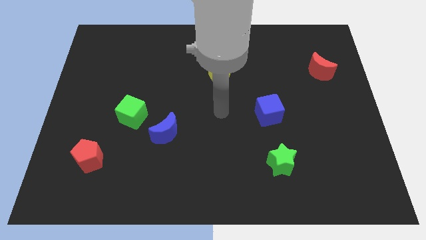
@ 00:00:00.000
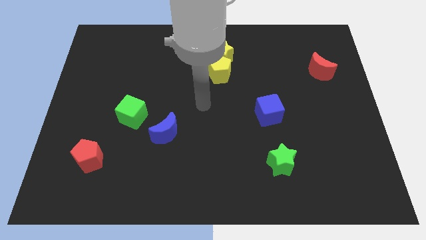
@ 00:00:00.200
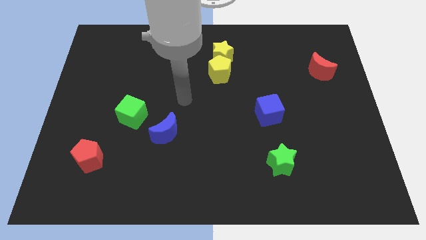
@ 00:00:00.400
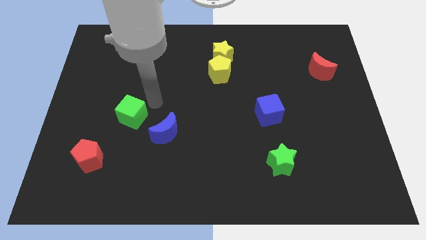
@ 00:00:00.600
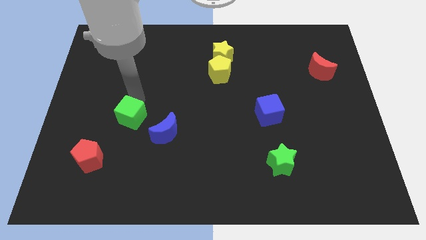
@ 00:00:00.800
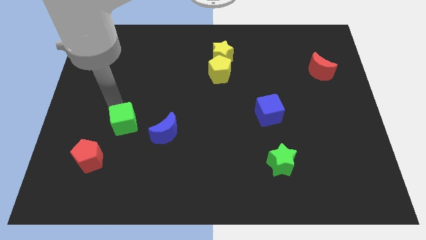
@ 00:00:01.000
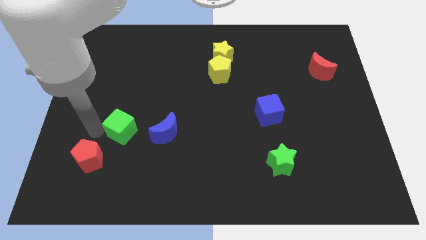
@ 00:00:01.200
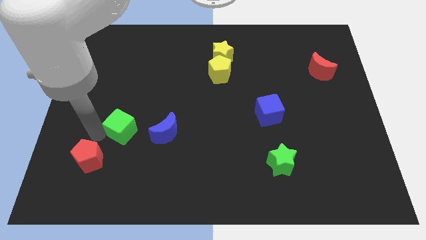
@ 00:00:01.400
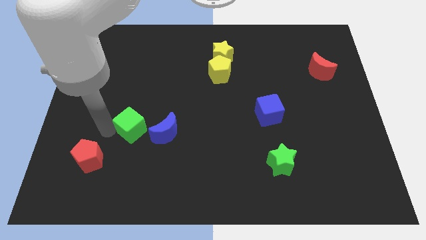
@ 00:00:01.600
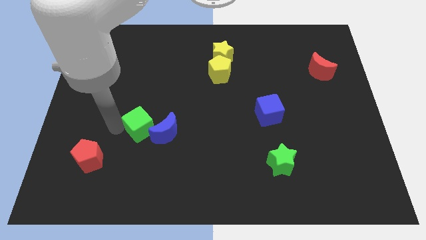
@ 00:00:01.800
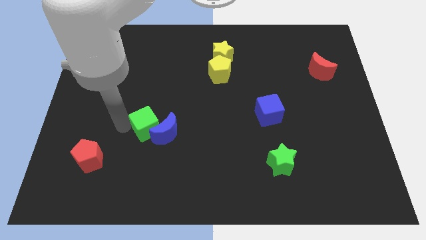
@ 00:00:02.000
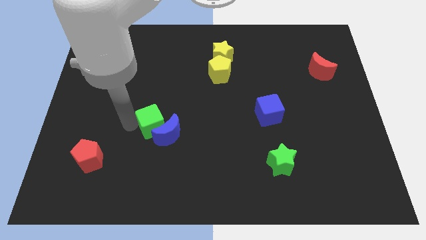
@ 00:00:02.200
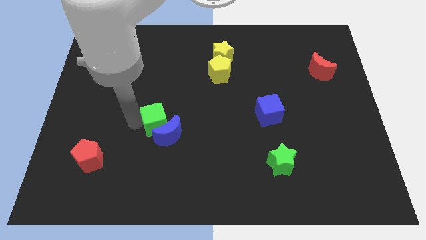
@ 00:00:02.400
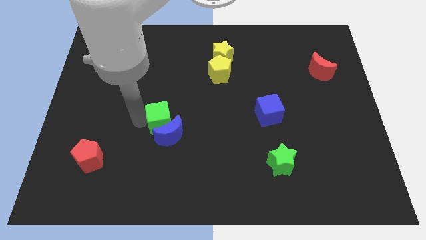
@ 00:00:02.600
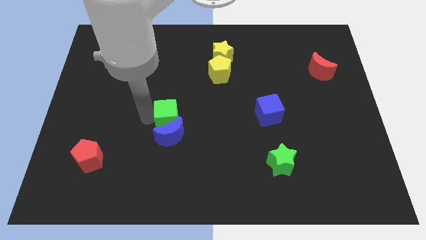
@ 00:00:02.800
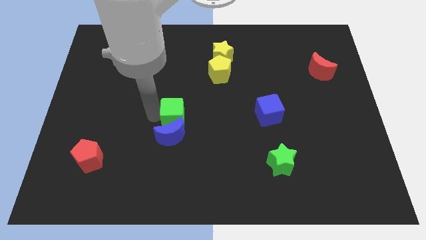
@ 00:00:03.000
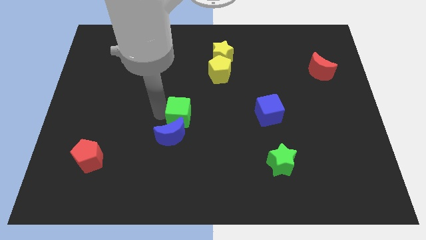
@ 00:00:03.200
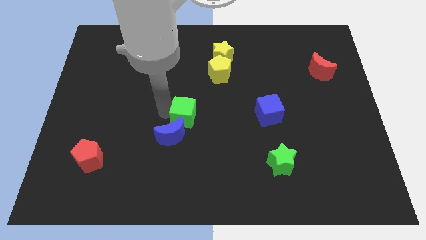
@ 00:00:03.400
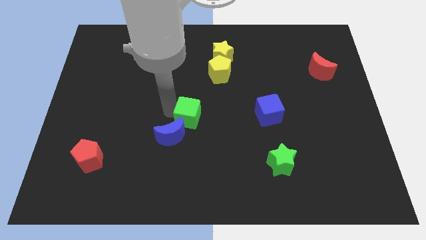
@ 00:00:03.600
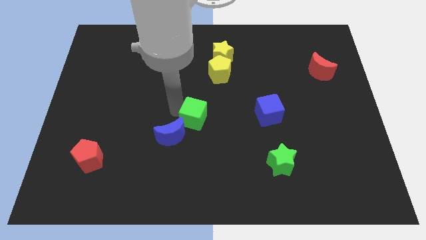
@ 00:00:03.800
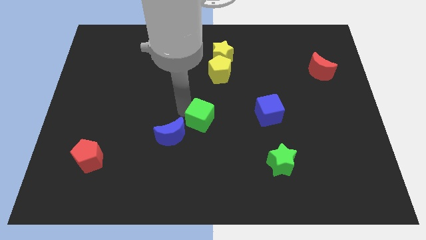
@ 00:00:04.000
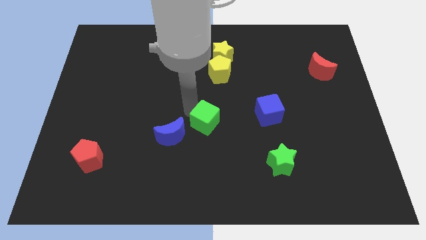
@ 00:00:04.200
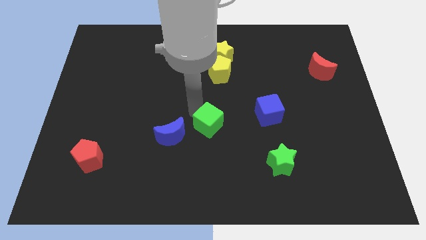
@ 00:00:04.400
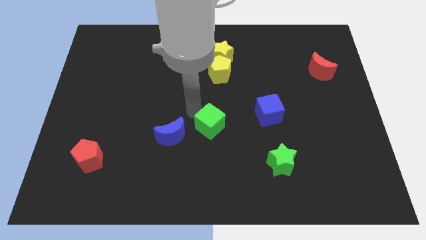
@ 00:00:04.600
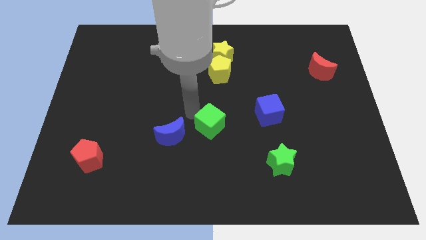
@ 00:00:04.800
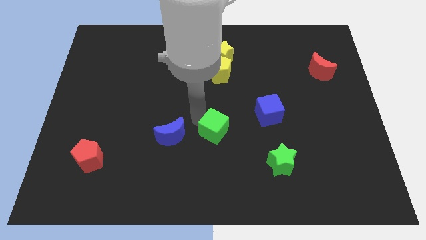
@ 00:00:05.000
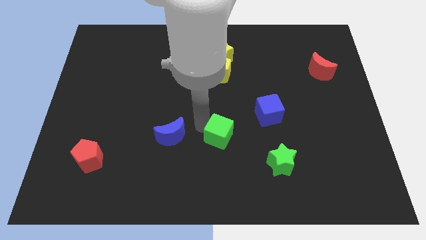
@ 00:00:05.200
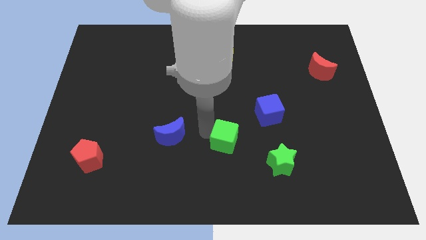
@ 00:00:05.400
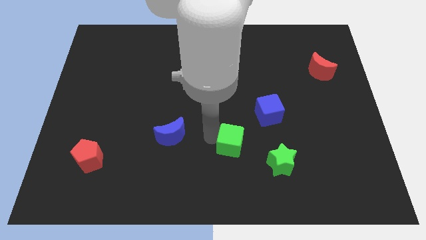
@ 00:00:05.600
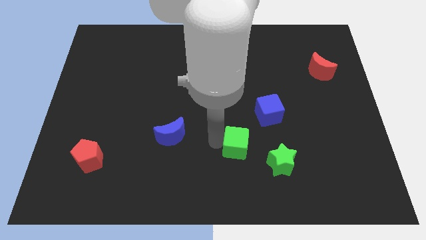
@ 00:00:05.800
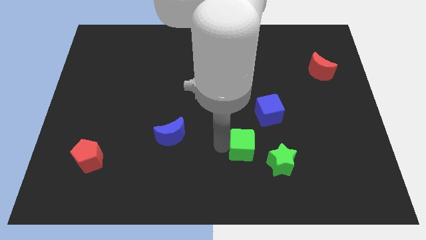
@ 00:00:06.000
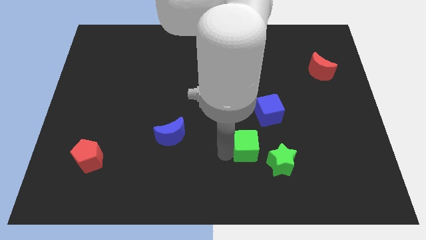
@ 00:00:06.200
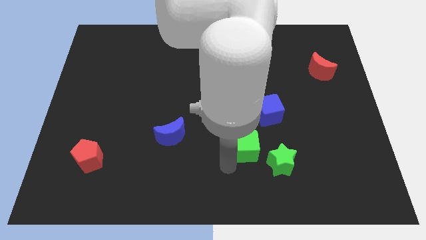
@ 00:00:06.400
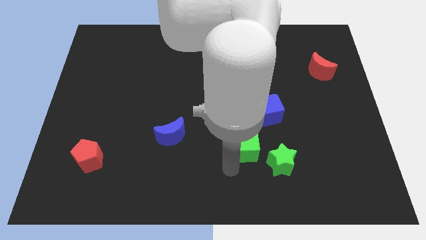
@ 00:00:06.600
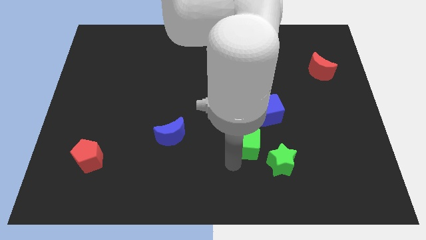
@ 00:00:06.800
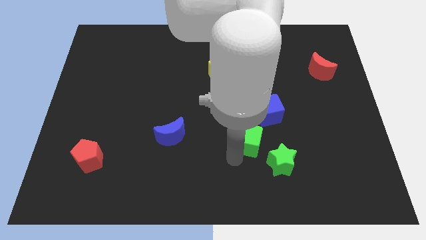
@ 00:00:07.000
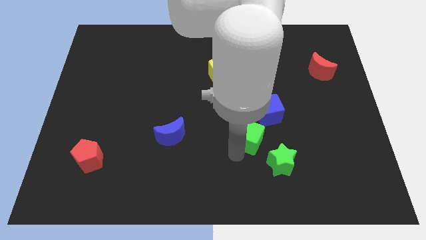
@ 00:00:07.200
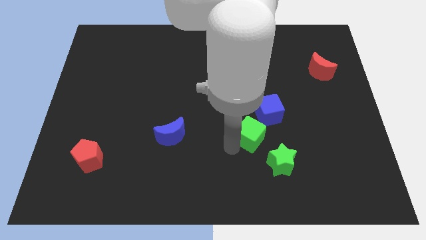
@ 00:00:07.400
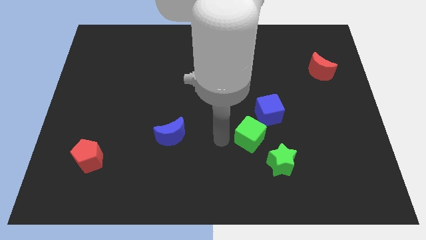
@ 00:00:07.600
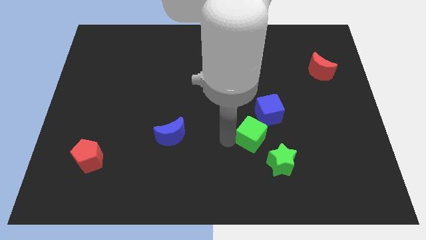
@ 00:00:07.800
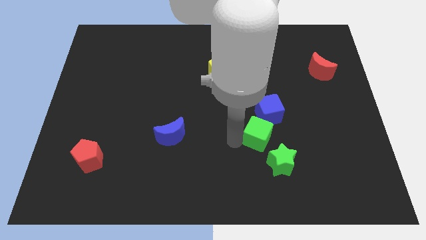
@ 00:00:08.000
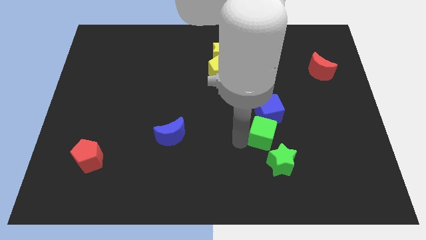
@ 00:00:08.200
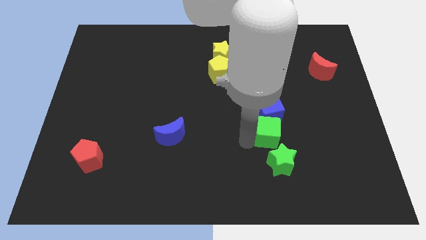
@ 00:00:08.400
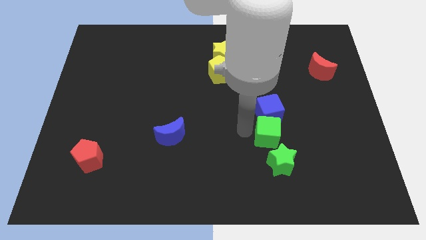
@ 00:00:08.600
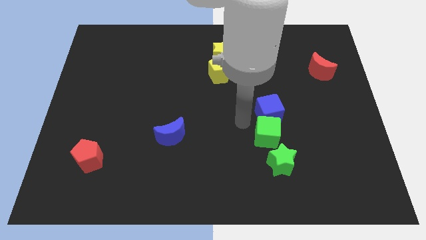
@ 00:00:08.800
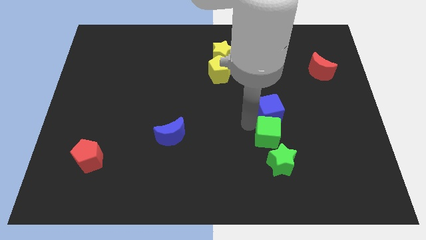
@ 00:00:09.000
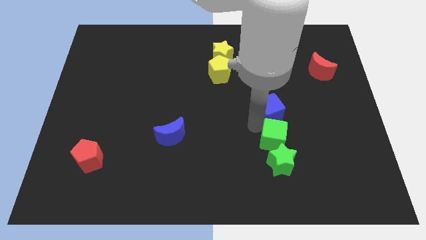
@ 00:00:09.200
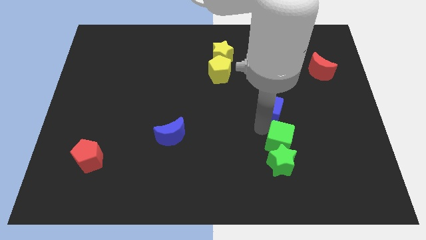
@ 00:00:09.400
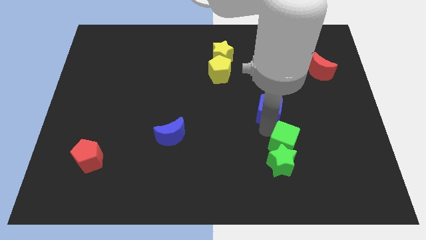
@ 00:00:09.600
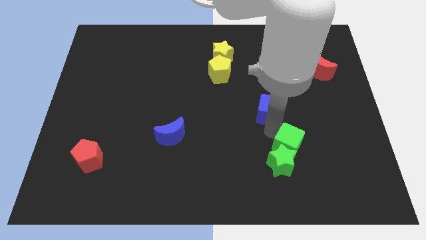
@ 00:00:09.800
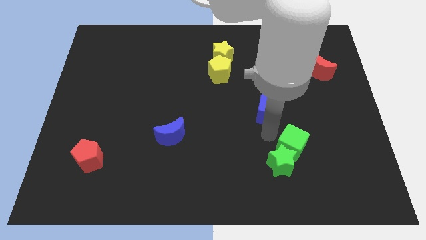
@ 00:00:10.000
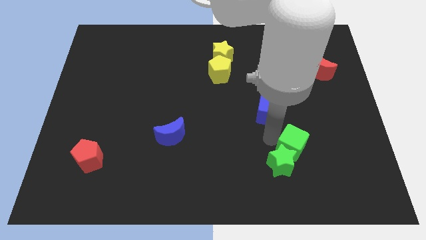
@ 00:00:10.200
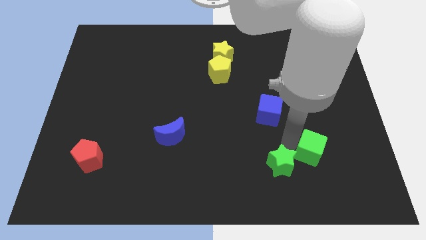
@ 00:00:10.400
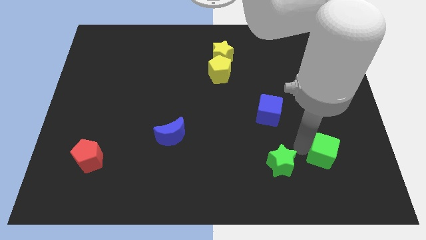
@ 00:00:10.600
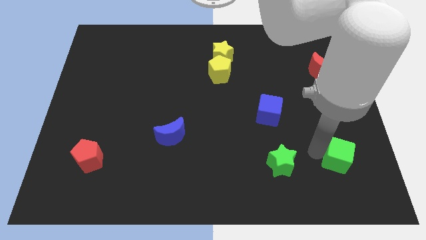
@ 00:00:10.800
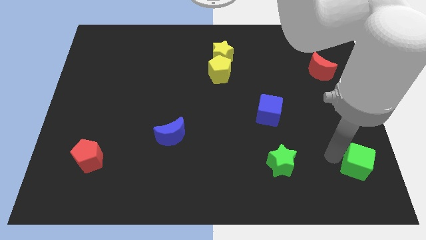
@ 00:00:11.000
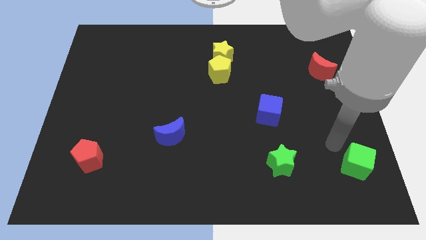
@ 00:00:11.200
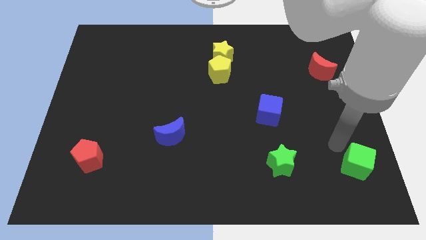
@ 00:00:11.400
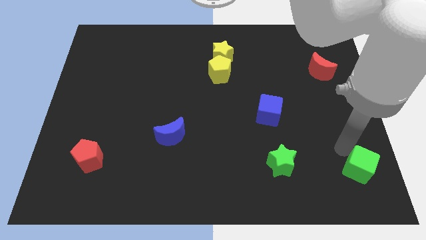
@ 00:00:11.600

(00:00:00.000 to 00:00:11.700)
push the green cube to the lower right corner
